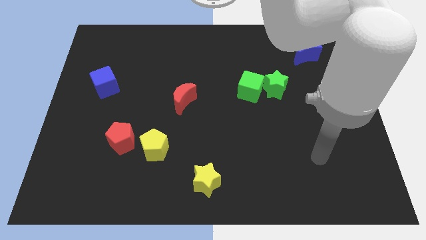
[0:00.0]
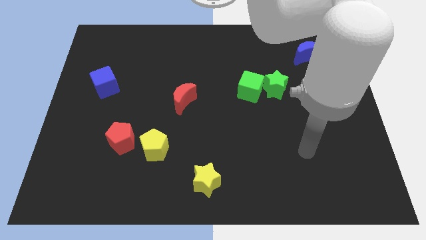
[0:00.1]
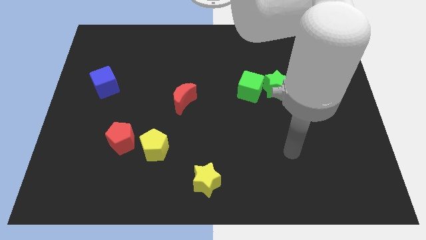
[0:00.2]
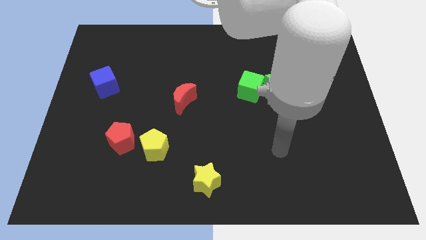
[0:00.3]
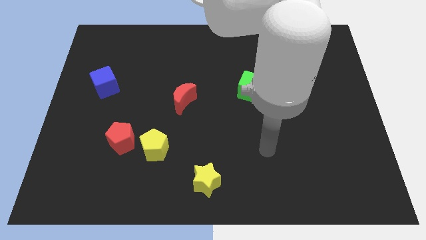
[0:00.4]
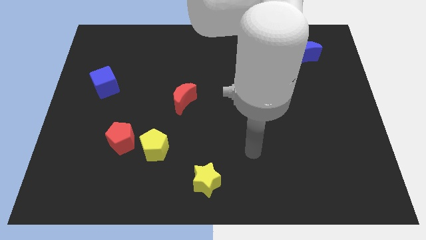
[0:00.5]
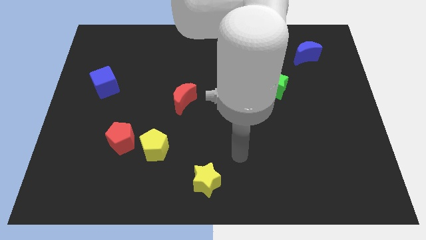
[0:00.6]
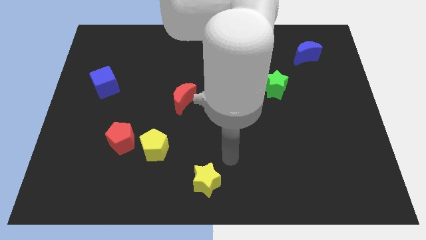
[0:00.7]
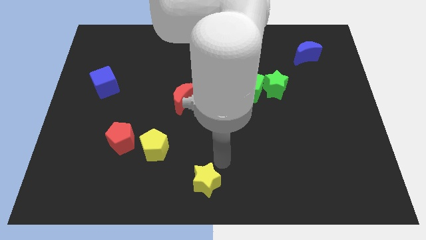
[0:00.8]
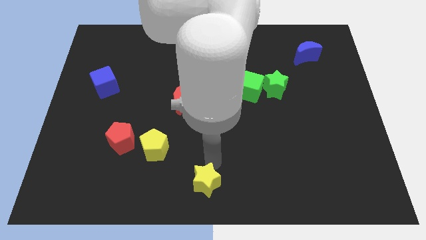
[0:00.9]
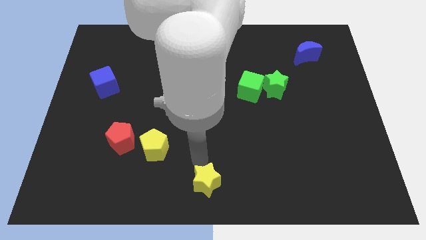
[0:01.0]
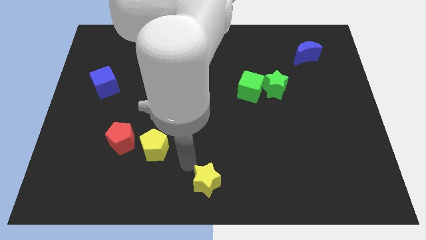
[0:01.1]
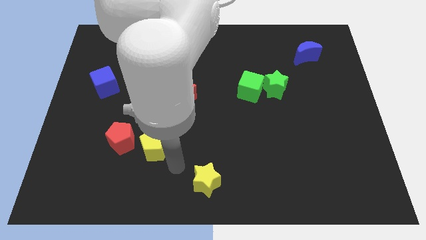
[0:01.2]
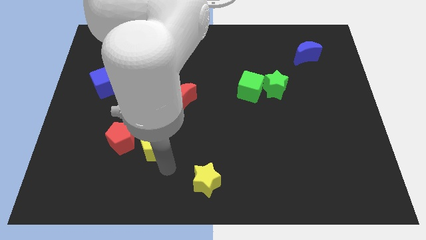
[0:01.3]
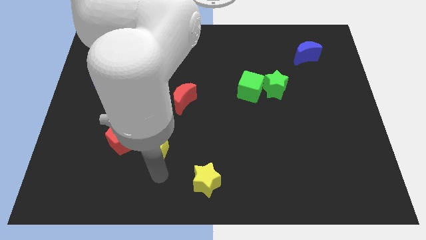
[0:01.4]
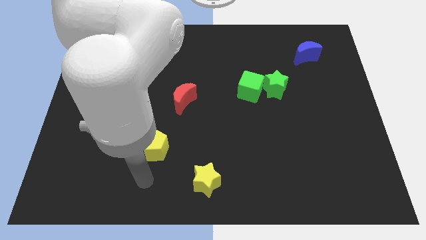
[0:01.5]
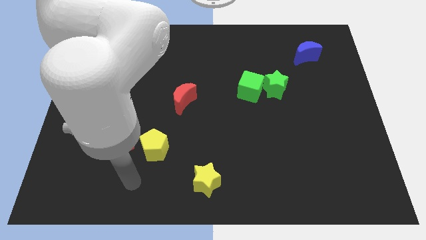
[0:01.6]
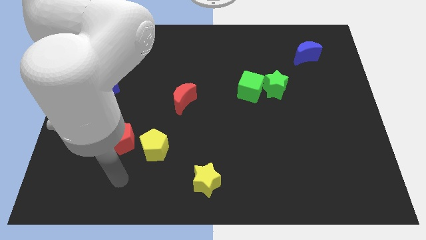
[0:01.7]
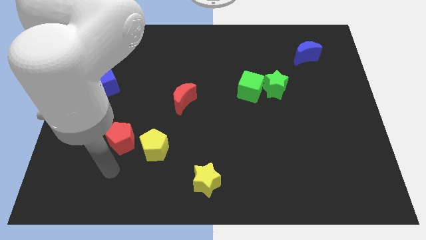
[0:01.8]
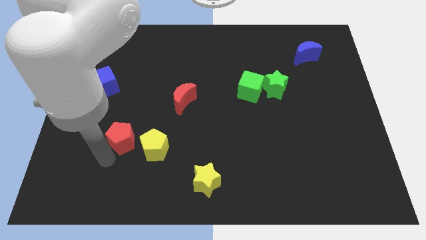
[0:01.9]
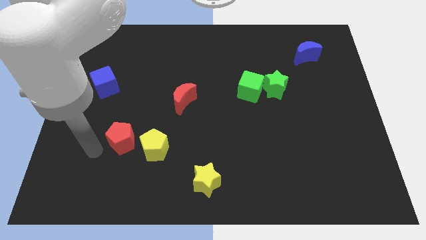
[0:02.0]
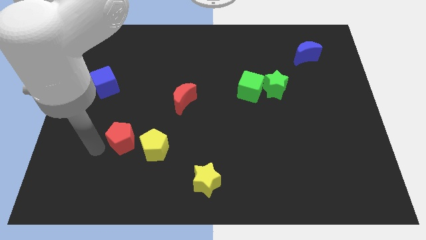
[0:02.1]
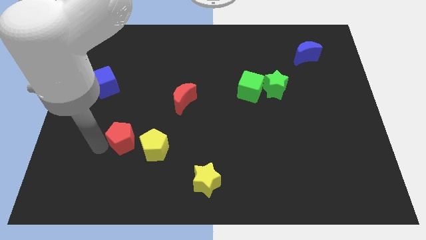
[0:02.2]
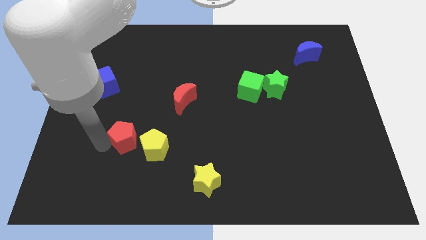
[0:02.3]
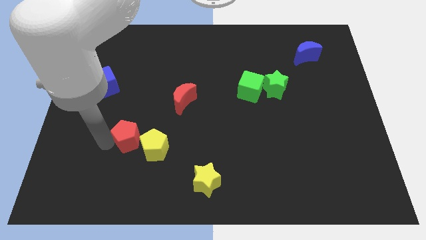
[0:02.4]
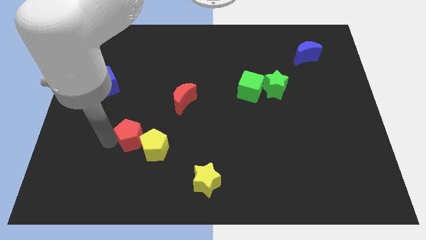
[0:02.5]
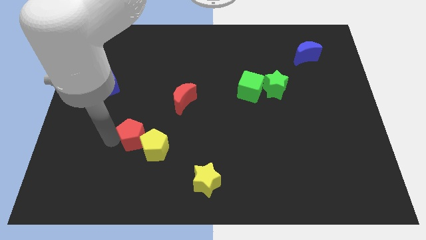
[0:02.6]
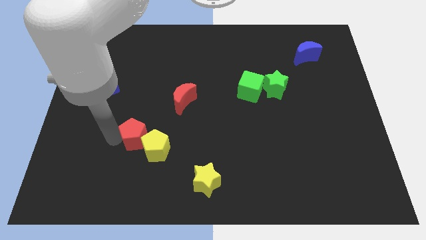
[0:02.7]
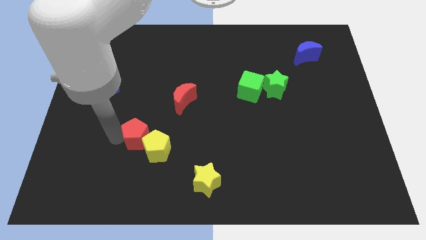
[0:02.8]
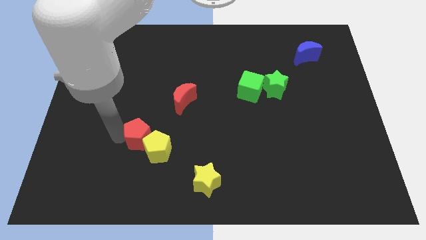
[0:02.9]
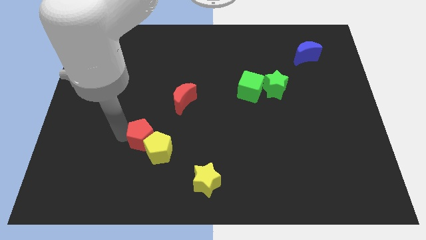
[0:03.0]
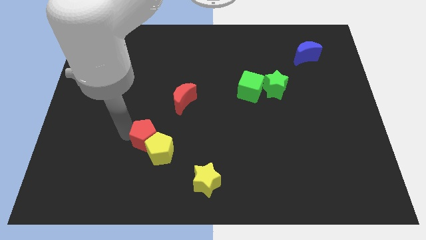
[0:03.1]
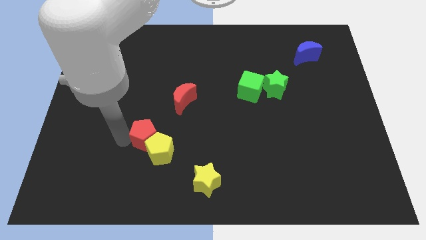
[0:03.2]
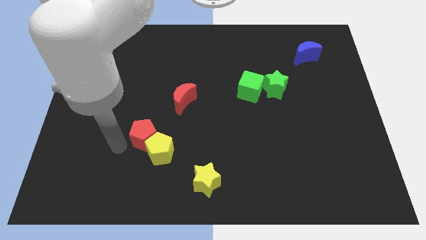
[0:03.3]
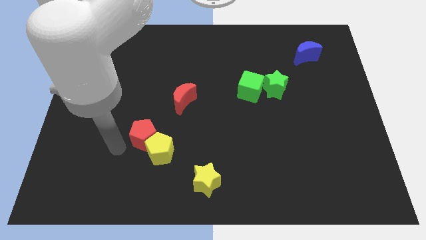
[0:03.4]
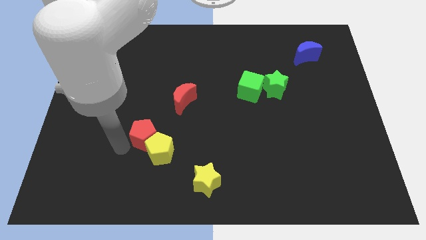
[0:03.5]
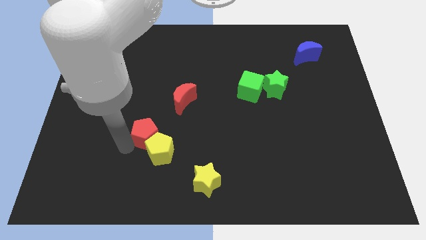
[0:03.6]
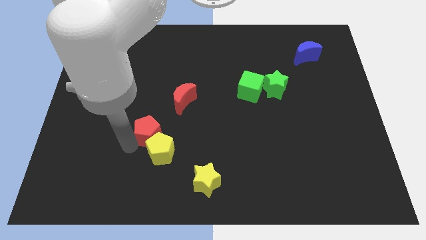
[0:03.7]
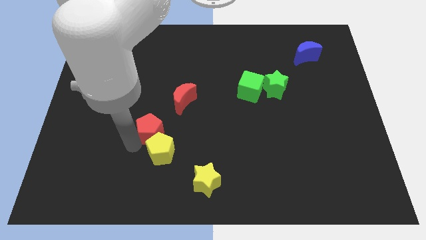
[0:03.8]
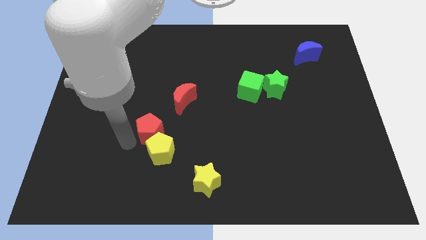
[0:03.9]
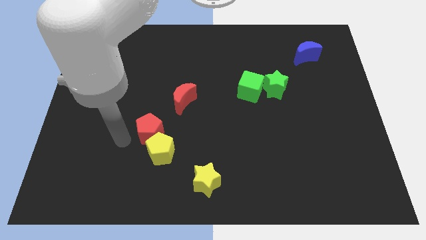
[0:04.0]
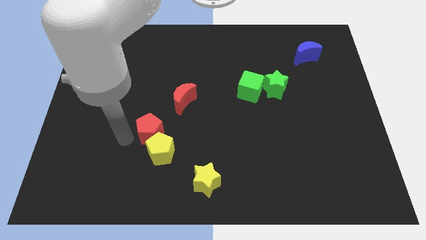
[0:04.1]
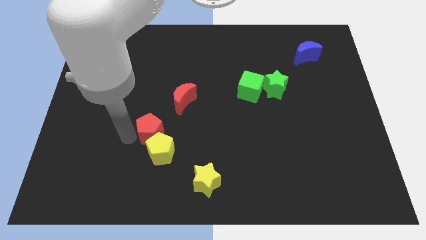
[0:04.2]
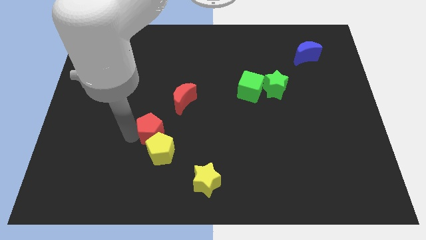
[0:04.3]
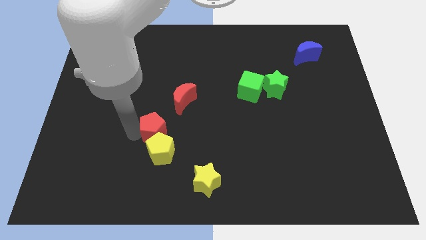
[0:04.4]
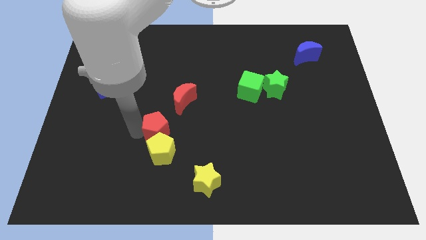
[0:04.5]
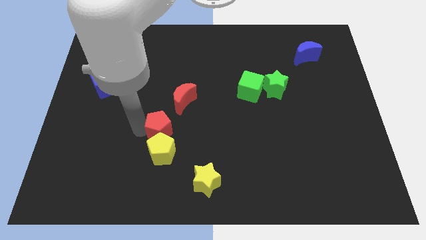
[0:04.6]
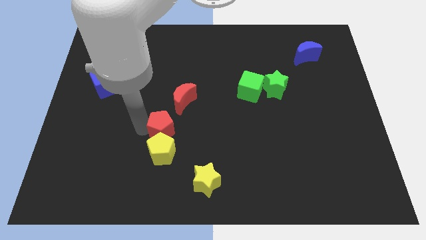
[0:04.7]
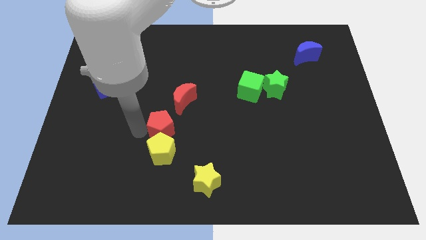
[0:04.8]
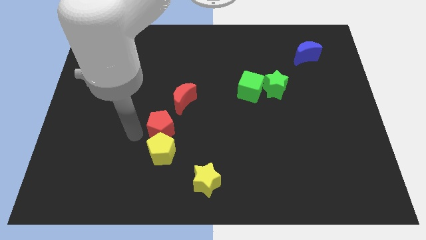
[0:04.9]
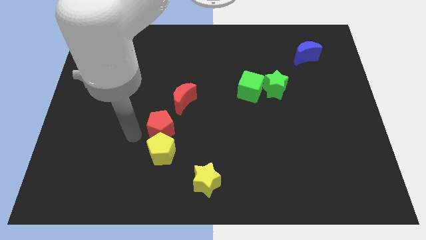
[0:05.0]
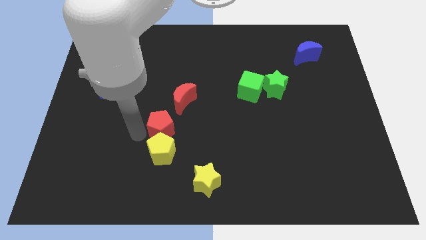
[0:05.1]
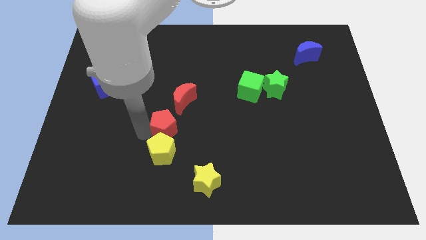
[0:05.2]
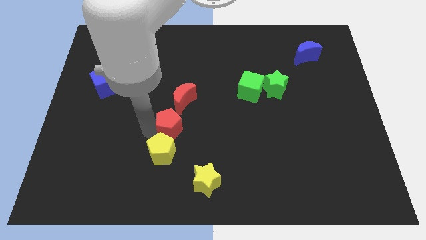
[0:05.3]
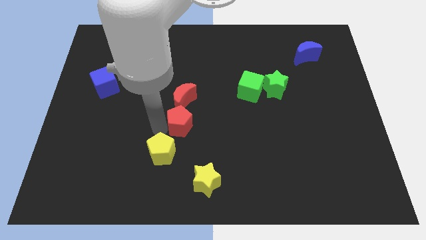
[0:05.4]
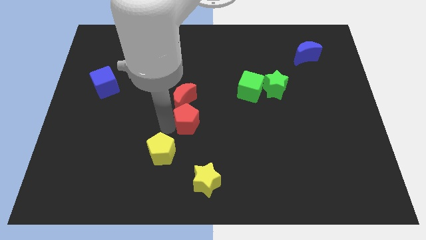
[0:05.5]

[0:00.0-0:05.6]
slide the red pentagon to the bottom right side of the red moon

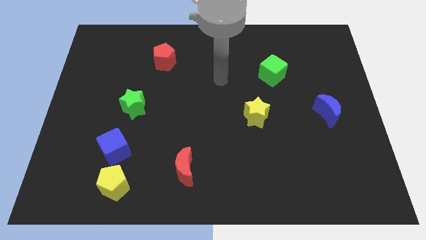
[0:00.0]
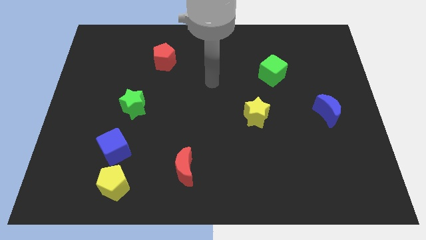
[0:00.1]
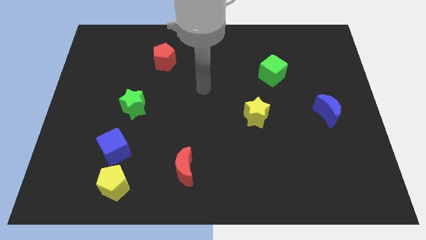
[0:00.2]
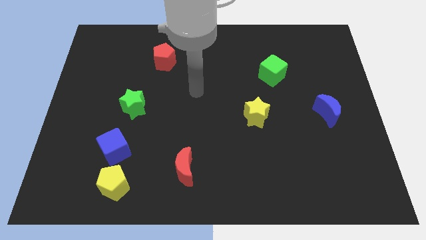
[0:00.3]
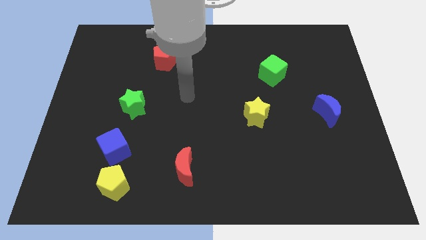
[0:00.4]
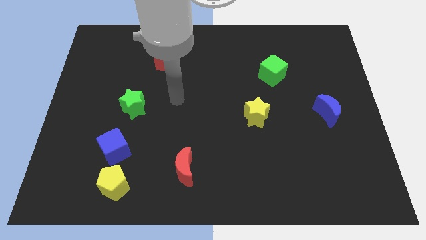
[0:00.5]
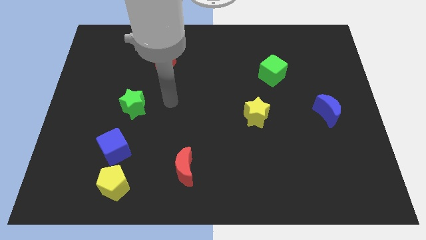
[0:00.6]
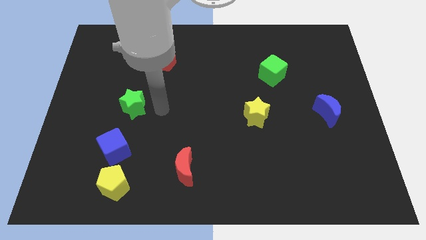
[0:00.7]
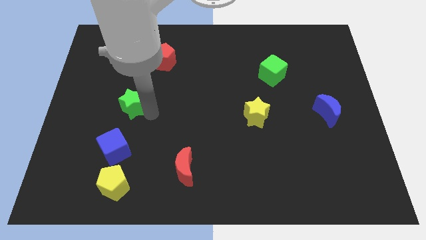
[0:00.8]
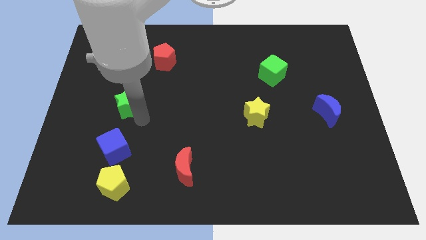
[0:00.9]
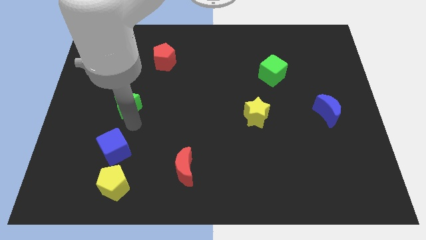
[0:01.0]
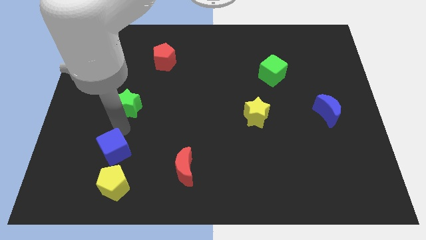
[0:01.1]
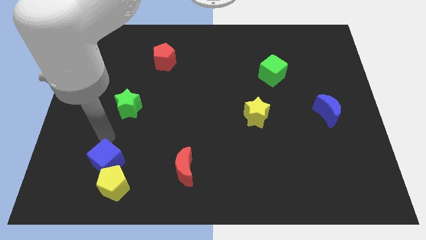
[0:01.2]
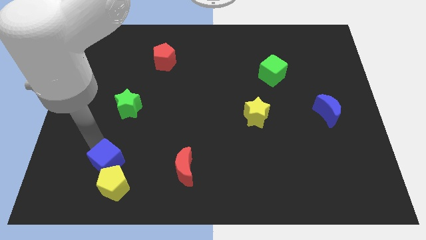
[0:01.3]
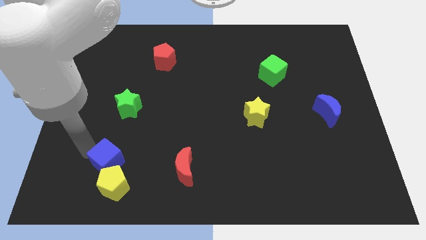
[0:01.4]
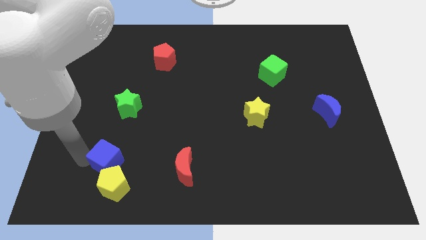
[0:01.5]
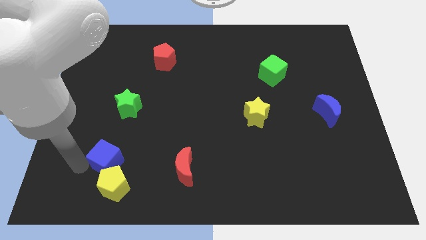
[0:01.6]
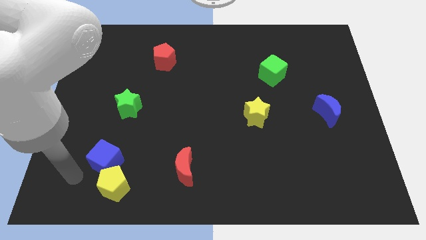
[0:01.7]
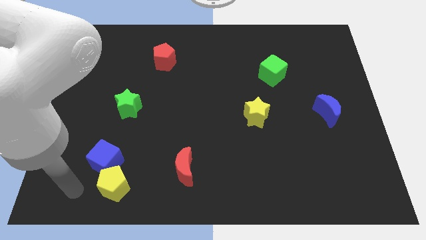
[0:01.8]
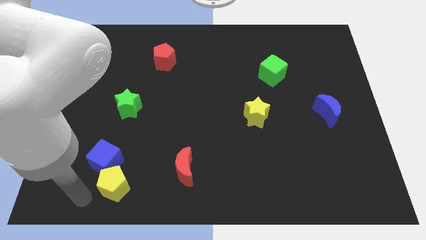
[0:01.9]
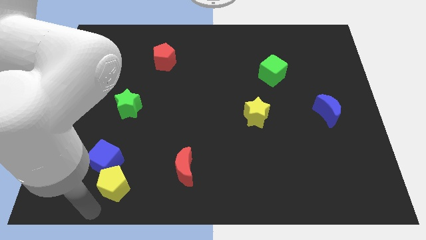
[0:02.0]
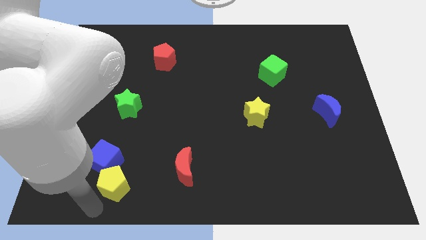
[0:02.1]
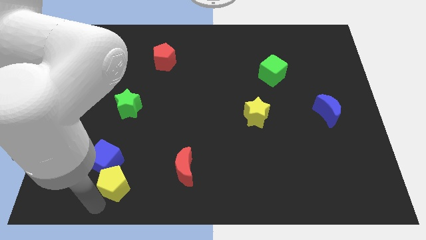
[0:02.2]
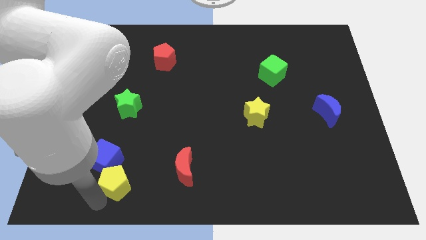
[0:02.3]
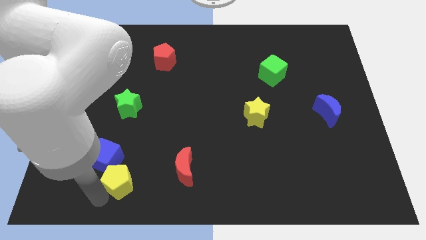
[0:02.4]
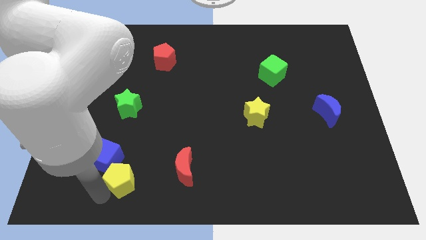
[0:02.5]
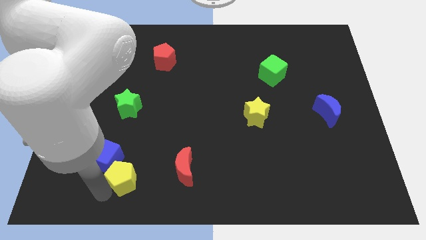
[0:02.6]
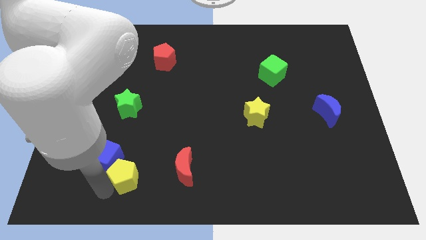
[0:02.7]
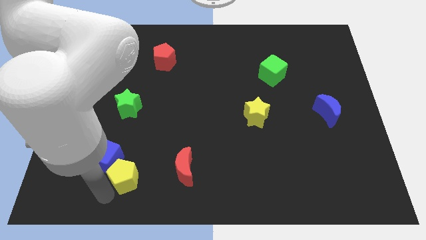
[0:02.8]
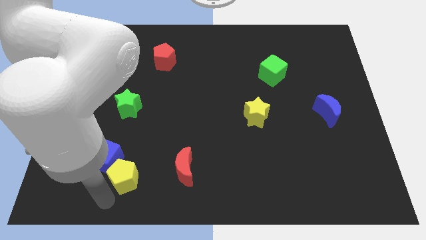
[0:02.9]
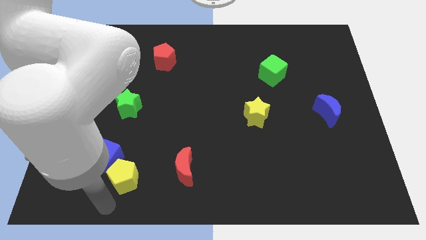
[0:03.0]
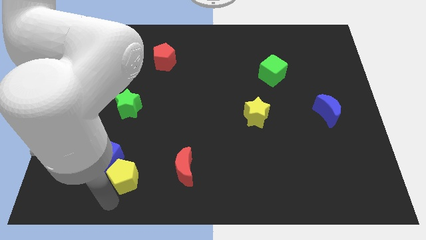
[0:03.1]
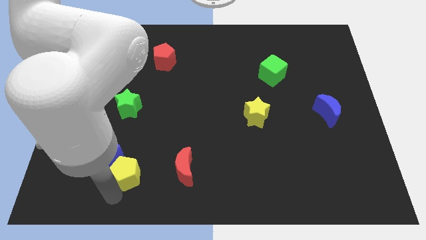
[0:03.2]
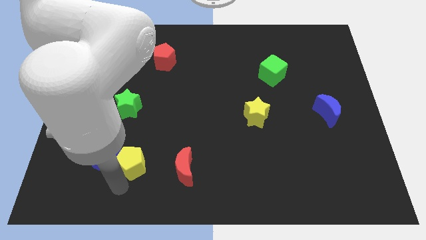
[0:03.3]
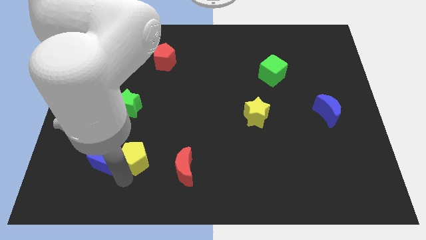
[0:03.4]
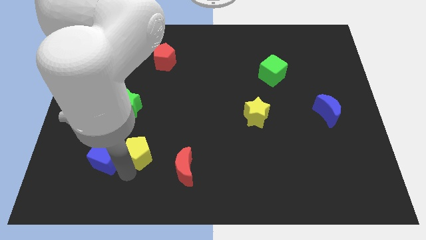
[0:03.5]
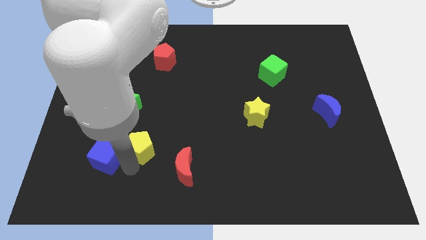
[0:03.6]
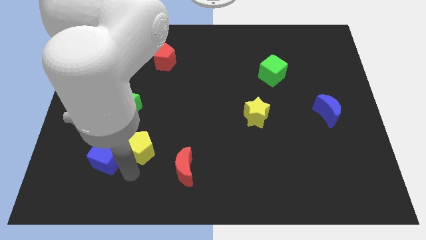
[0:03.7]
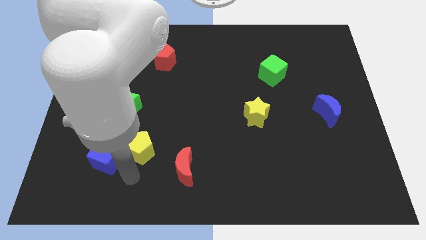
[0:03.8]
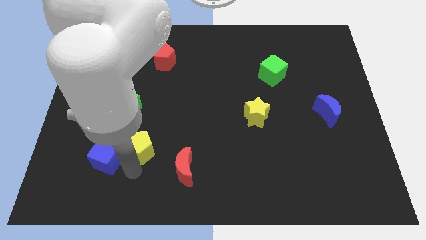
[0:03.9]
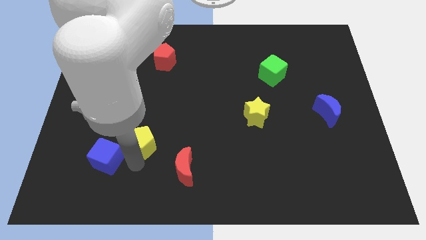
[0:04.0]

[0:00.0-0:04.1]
put the yellow pentagon diagonally down and to the right of the green star
